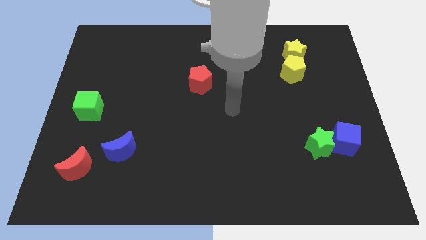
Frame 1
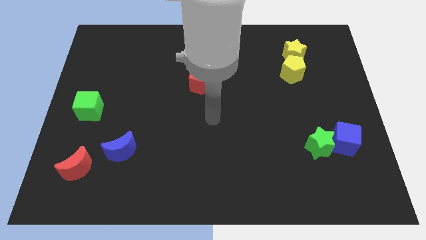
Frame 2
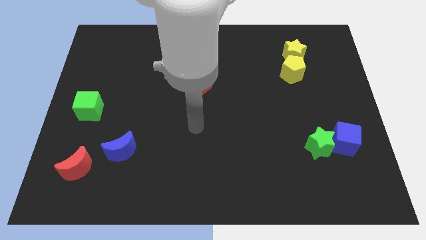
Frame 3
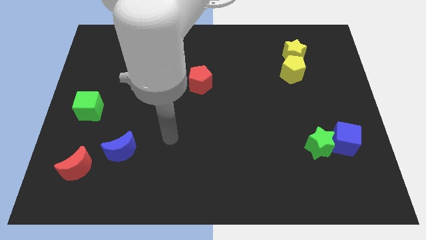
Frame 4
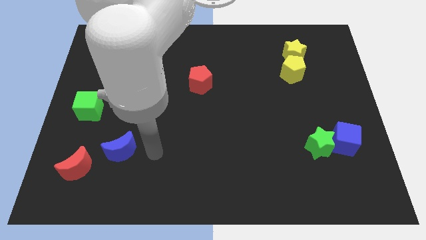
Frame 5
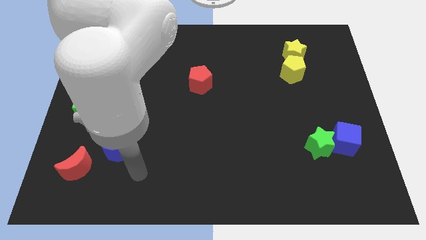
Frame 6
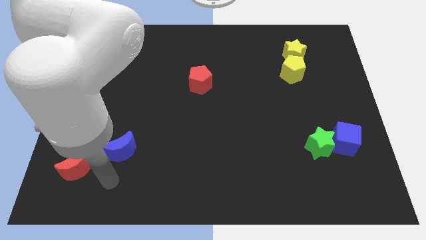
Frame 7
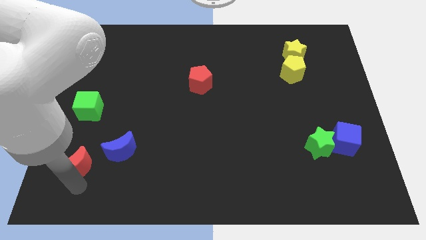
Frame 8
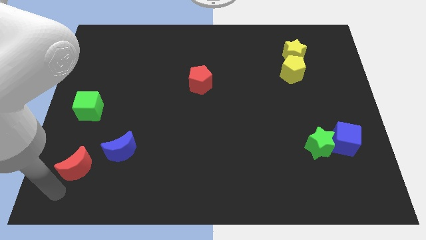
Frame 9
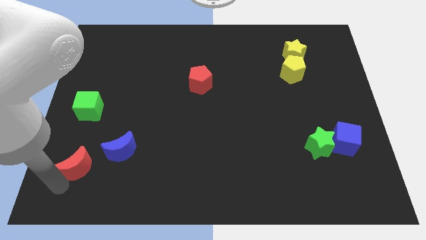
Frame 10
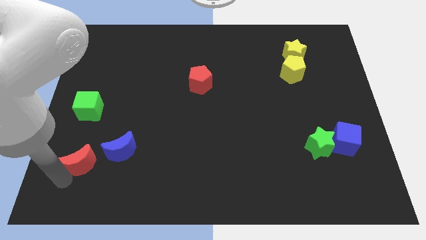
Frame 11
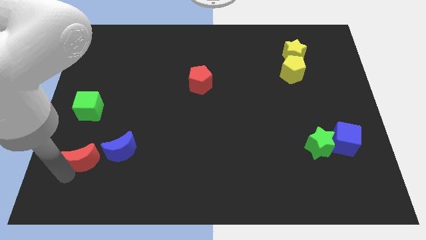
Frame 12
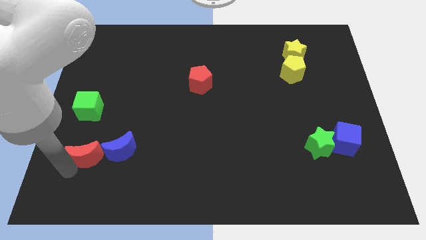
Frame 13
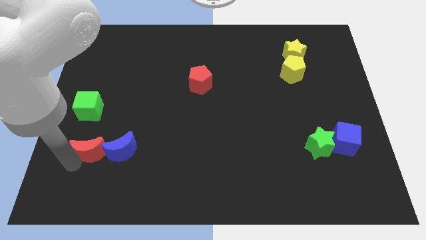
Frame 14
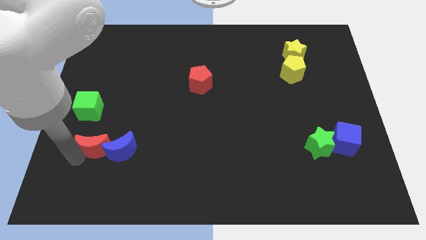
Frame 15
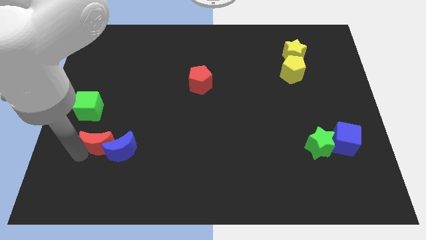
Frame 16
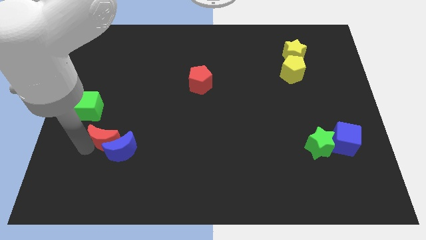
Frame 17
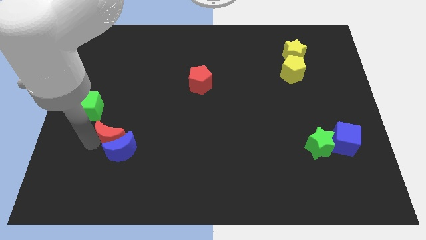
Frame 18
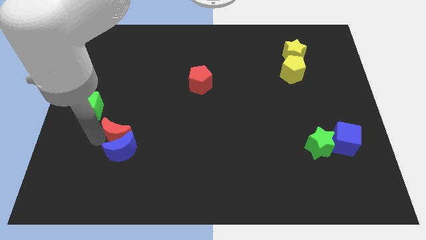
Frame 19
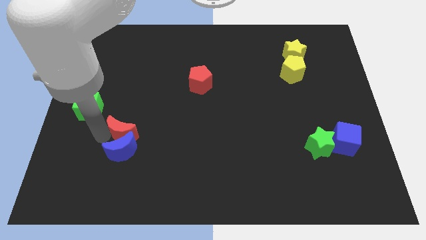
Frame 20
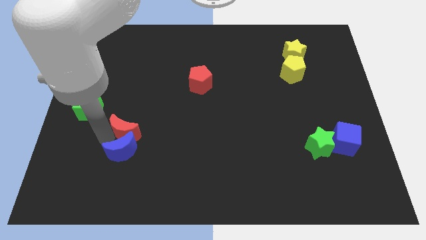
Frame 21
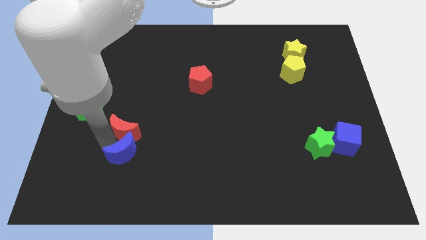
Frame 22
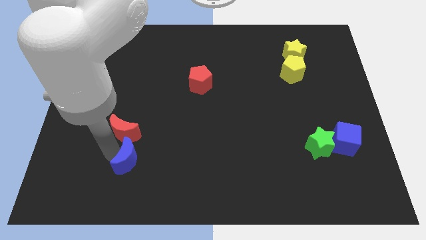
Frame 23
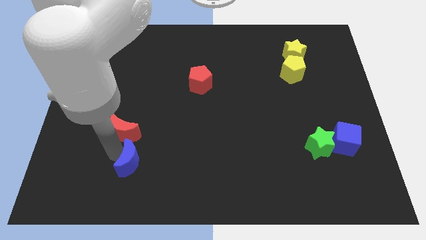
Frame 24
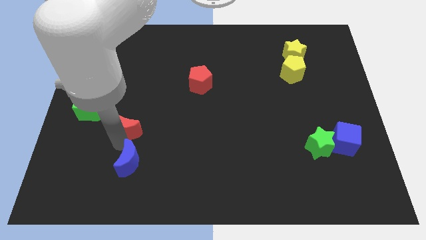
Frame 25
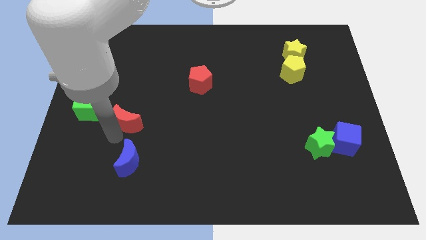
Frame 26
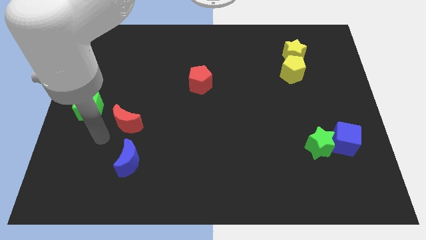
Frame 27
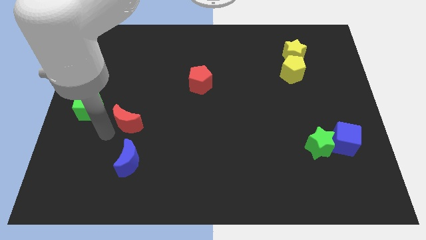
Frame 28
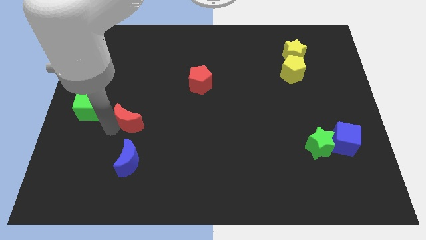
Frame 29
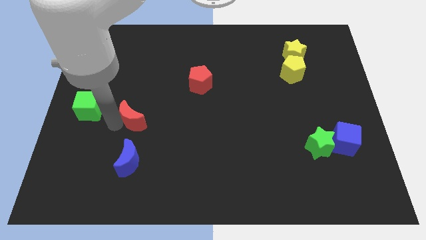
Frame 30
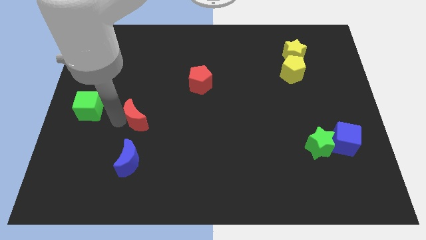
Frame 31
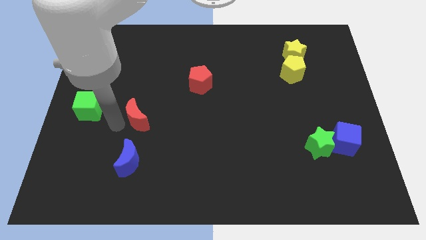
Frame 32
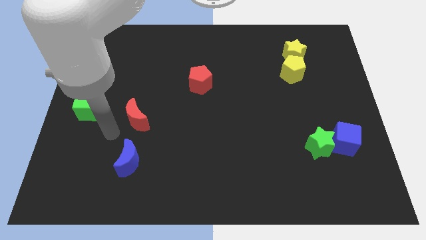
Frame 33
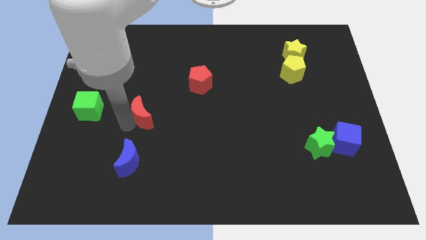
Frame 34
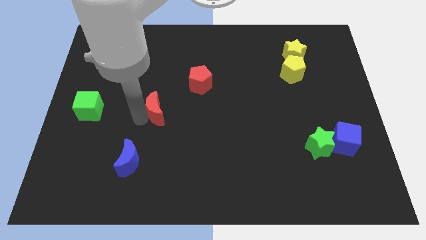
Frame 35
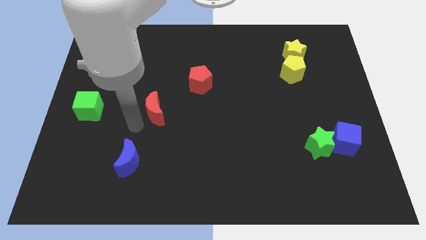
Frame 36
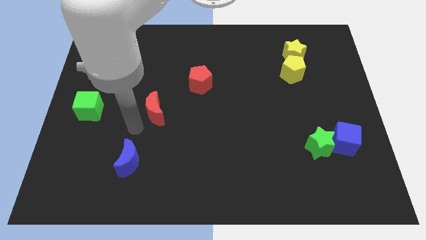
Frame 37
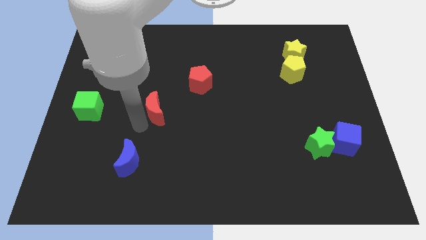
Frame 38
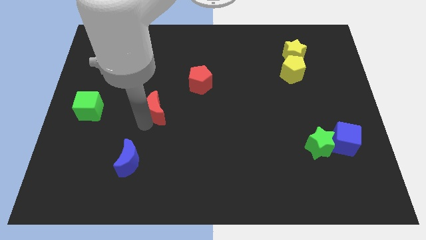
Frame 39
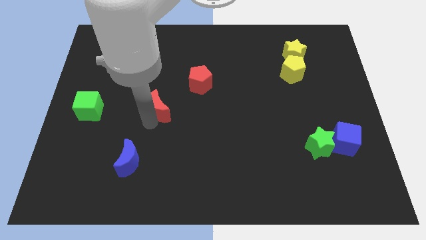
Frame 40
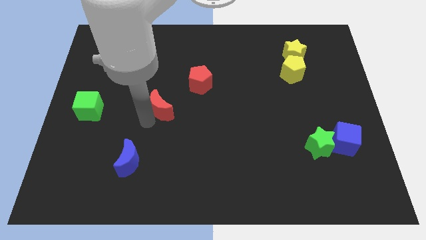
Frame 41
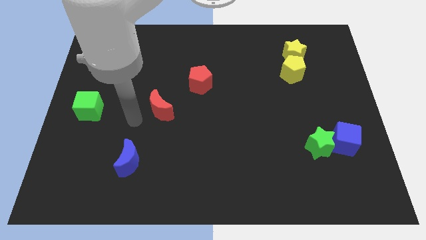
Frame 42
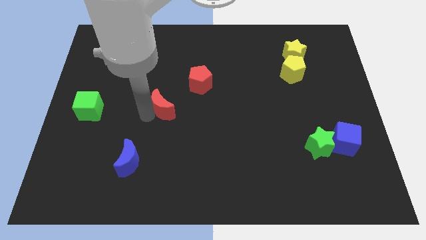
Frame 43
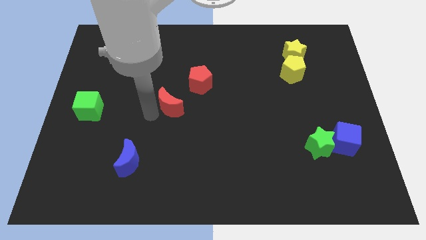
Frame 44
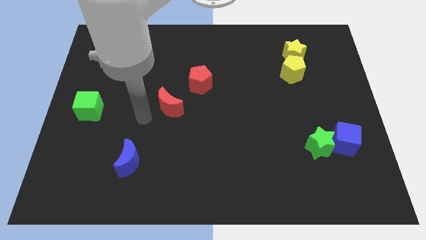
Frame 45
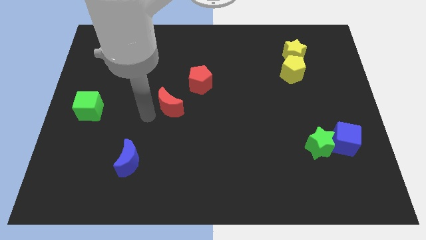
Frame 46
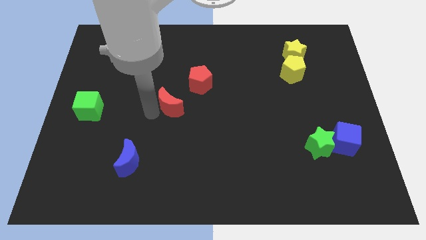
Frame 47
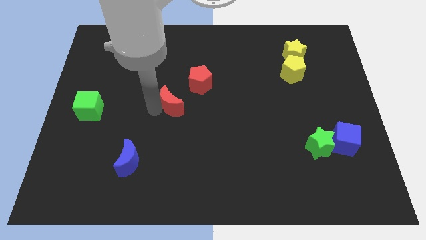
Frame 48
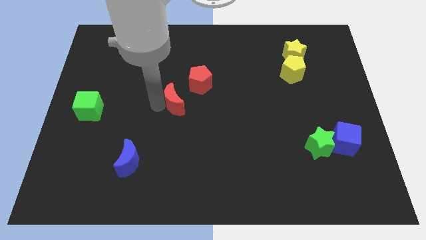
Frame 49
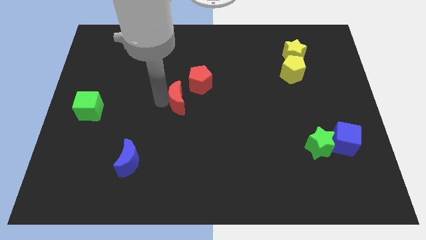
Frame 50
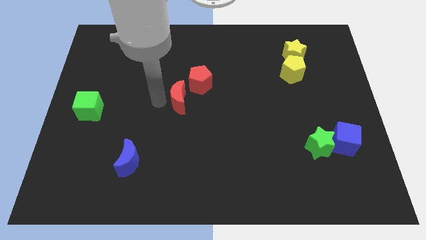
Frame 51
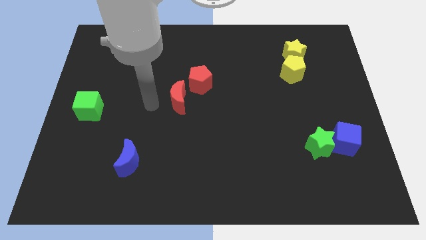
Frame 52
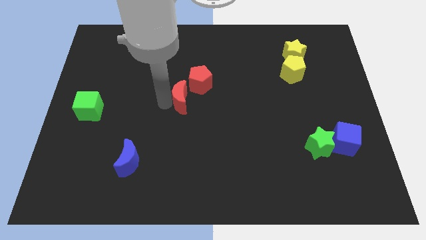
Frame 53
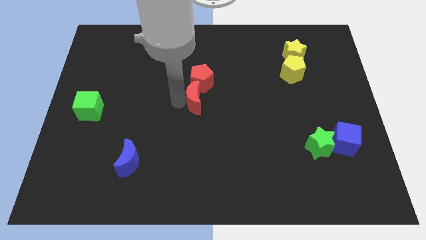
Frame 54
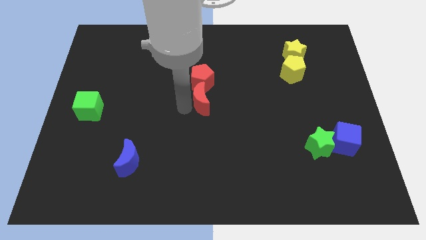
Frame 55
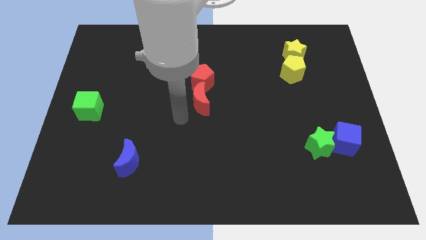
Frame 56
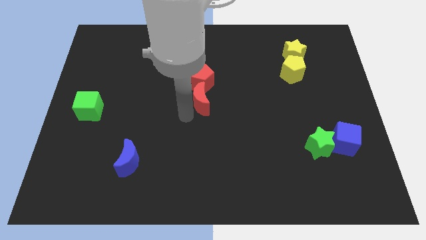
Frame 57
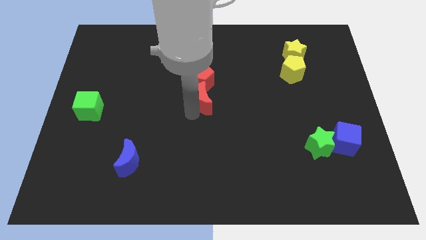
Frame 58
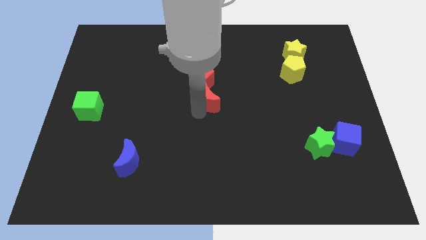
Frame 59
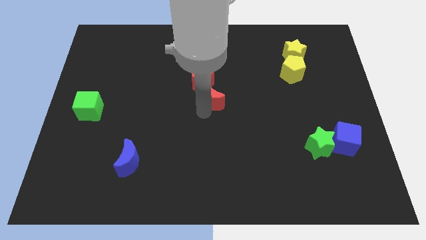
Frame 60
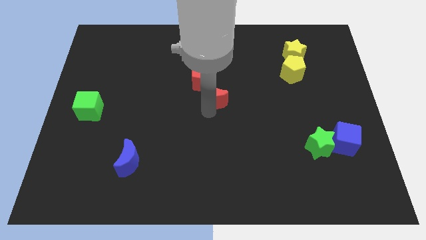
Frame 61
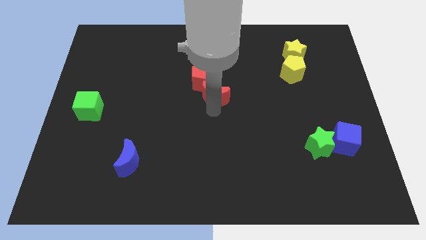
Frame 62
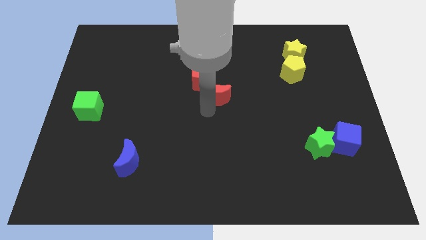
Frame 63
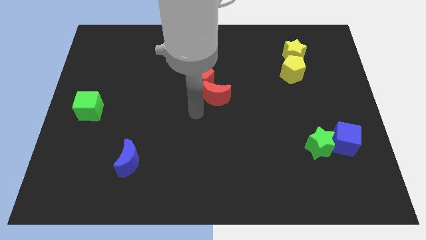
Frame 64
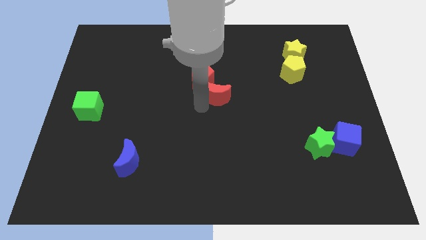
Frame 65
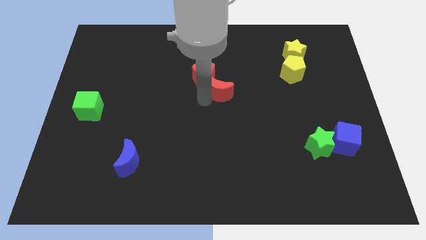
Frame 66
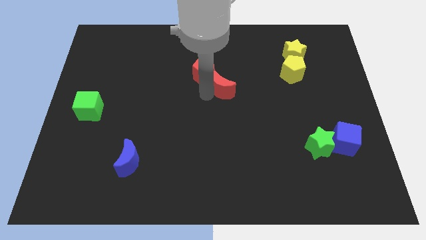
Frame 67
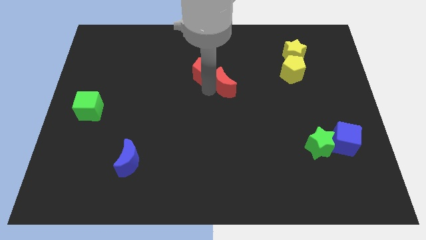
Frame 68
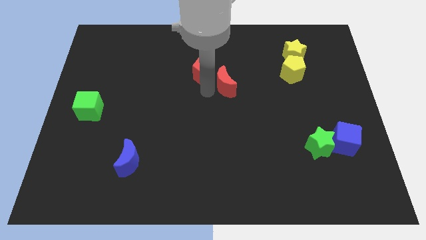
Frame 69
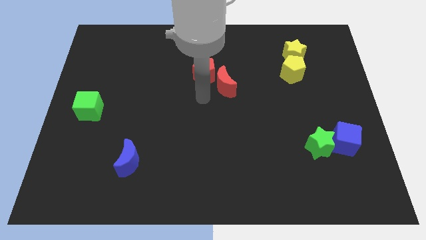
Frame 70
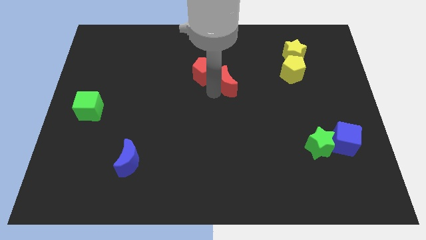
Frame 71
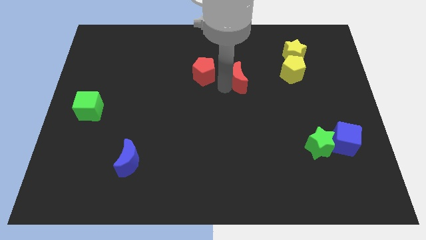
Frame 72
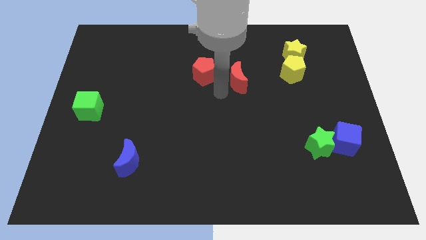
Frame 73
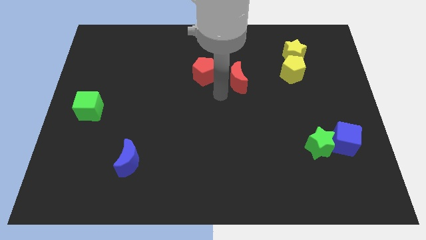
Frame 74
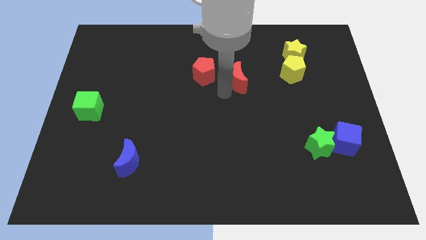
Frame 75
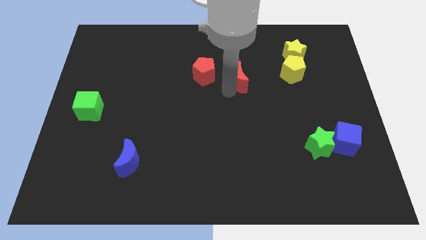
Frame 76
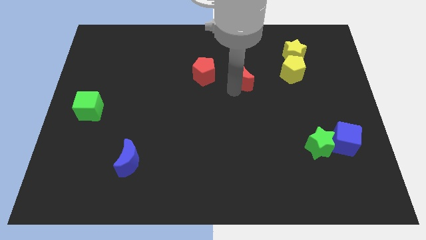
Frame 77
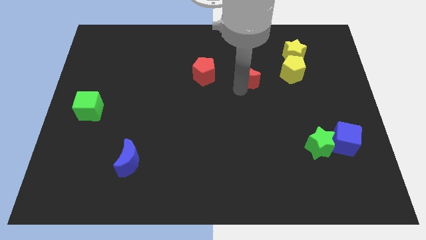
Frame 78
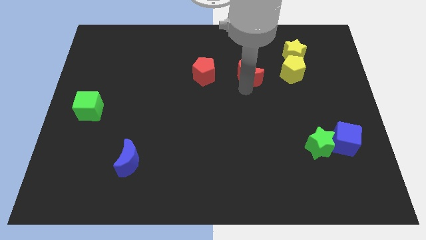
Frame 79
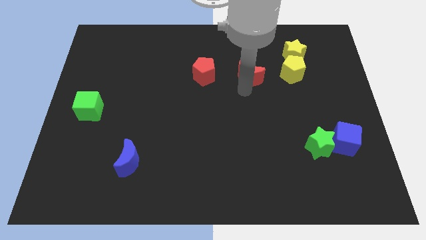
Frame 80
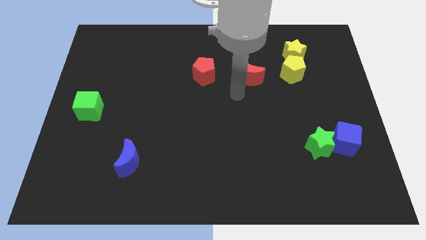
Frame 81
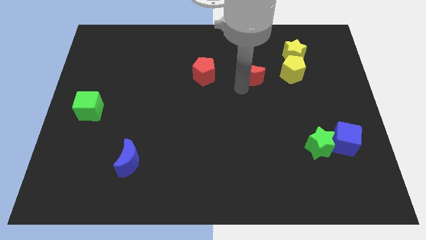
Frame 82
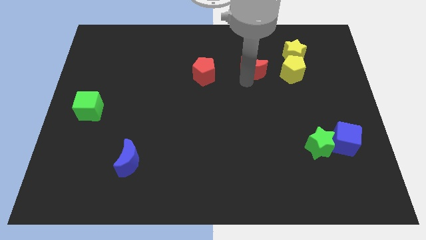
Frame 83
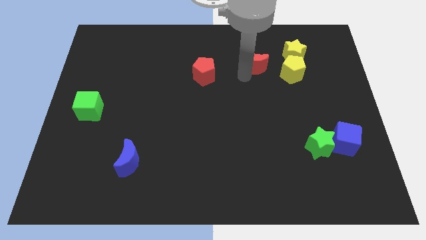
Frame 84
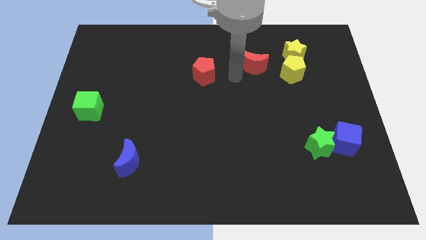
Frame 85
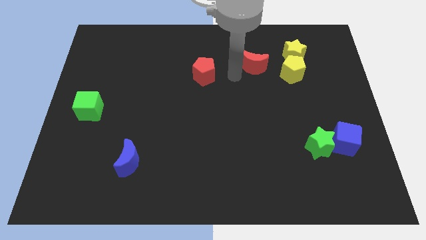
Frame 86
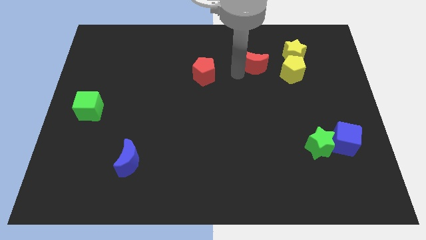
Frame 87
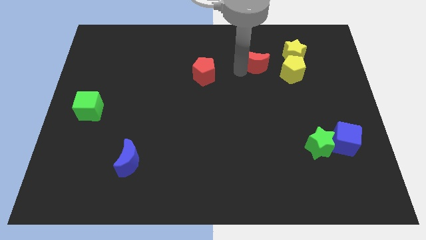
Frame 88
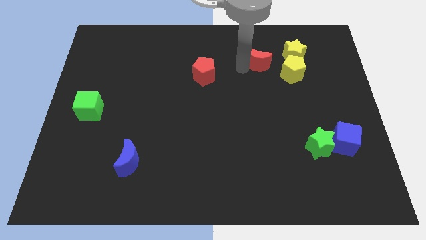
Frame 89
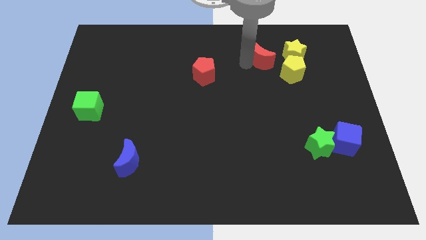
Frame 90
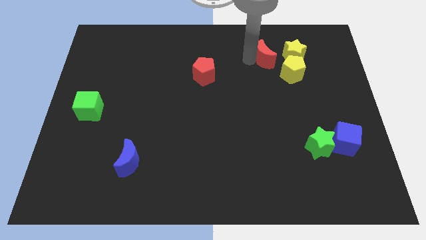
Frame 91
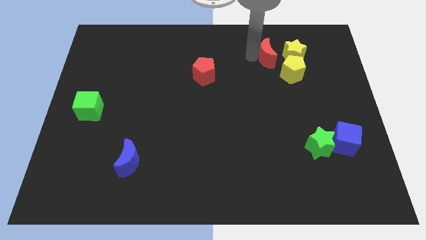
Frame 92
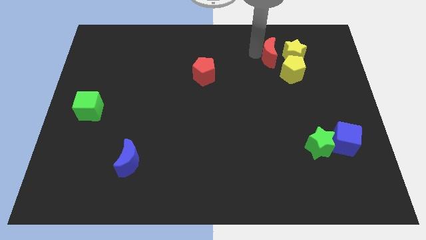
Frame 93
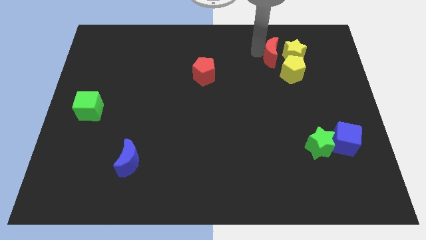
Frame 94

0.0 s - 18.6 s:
slide the red moon next to the yellow star
